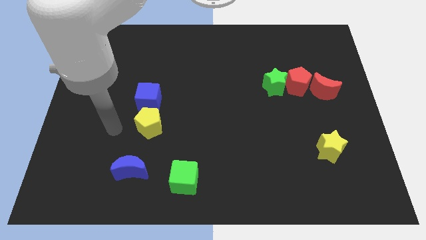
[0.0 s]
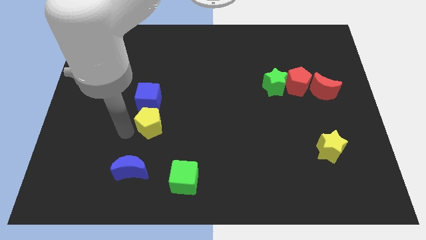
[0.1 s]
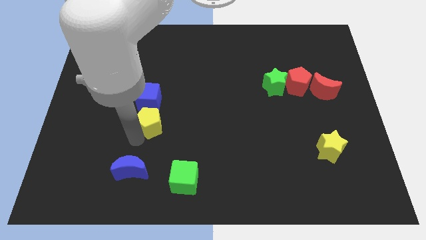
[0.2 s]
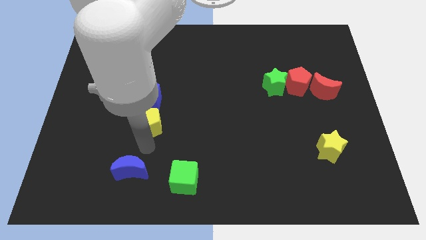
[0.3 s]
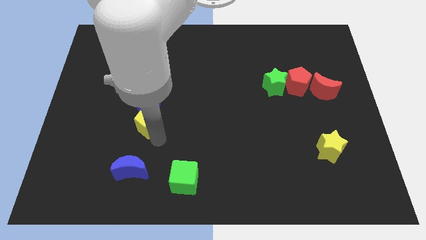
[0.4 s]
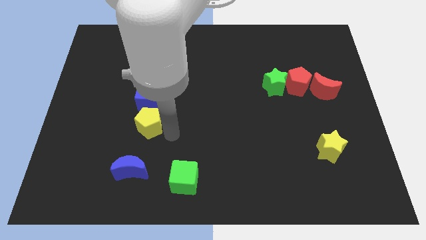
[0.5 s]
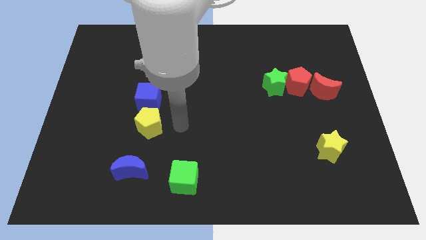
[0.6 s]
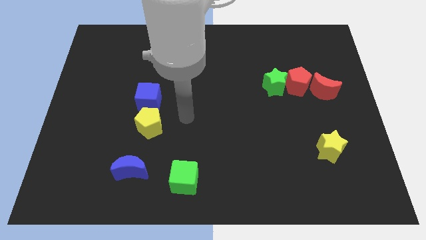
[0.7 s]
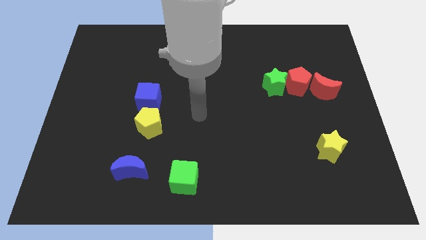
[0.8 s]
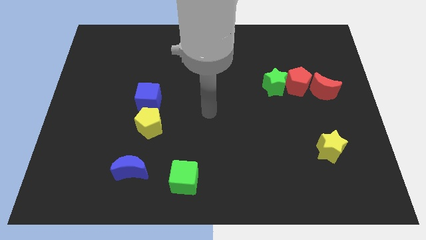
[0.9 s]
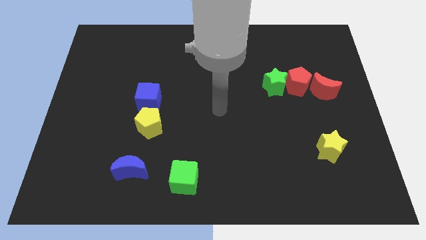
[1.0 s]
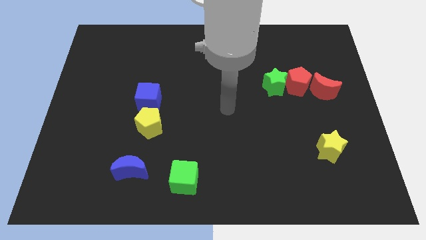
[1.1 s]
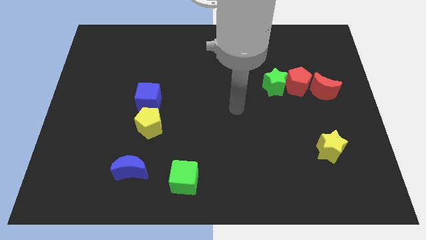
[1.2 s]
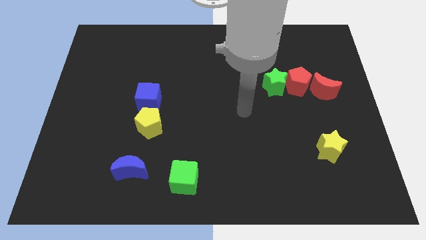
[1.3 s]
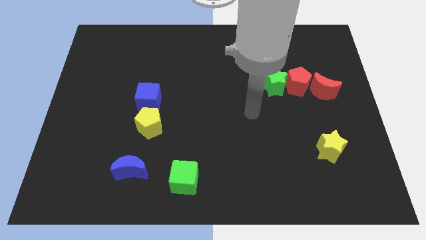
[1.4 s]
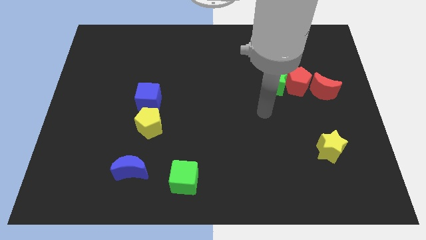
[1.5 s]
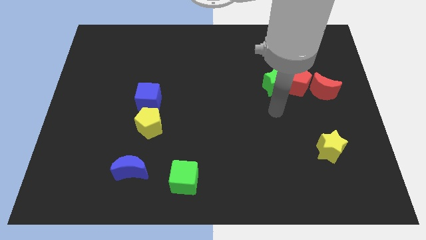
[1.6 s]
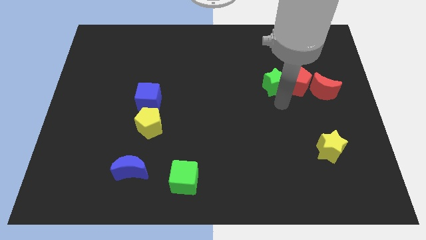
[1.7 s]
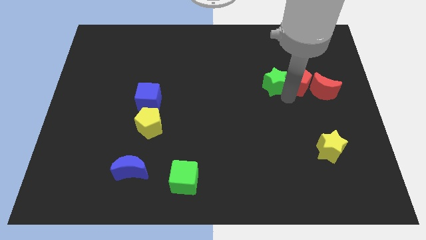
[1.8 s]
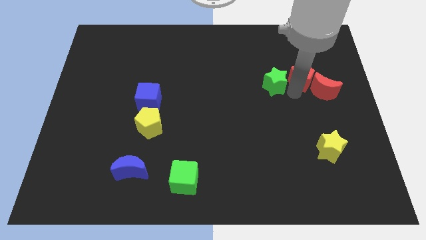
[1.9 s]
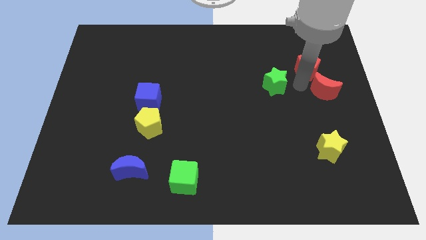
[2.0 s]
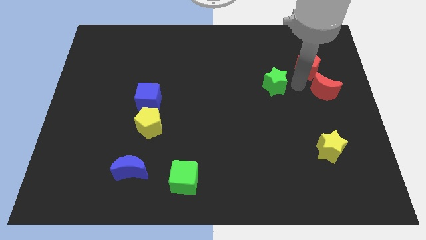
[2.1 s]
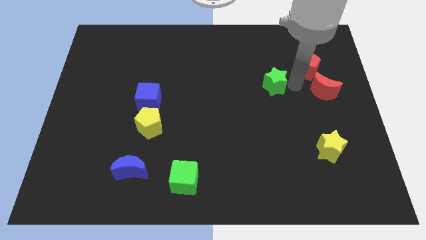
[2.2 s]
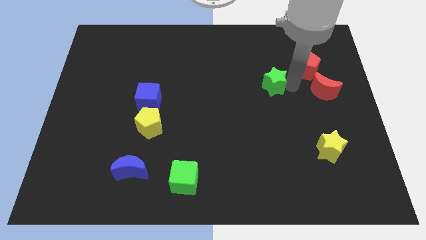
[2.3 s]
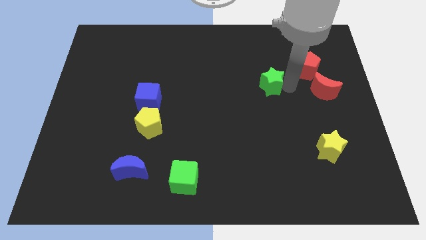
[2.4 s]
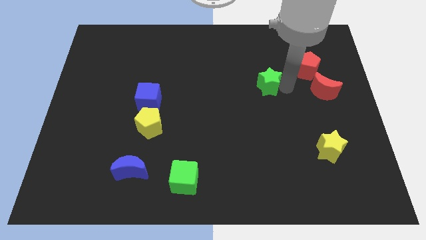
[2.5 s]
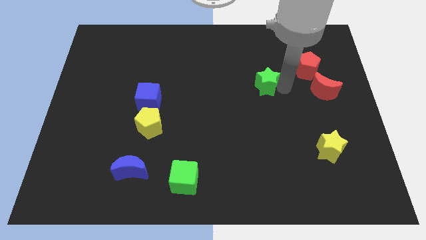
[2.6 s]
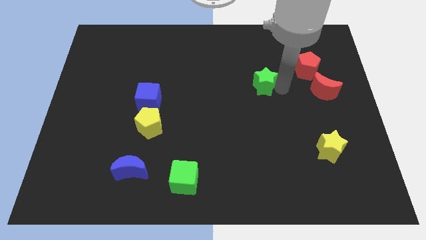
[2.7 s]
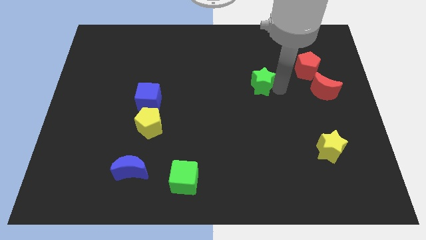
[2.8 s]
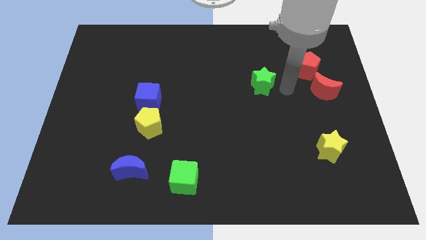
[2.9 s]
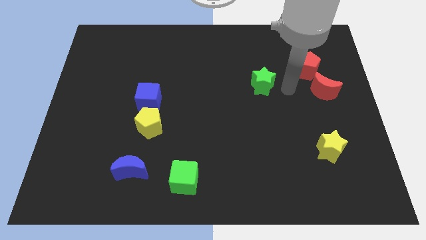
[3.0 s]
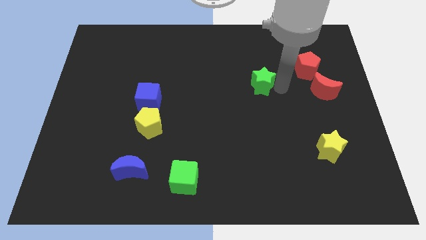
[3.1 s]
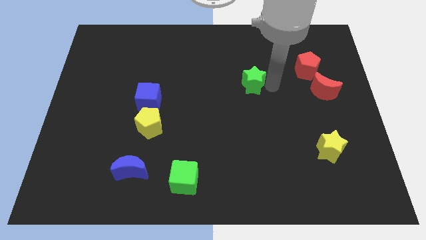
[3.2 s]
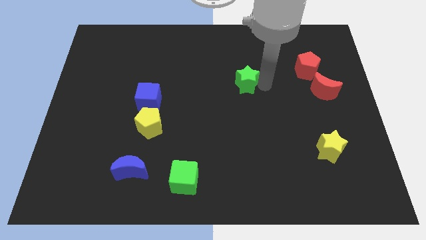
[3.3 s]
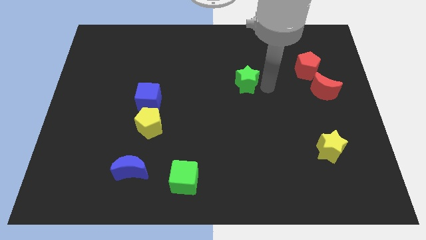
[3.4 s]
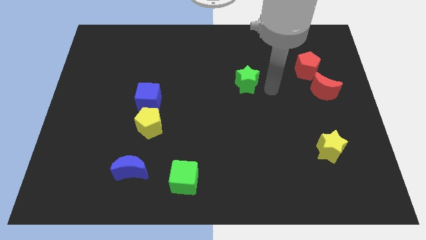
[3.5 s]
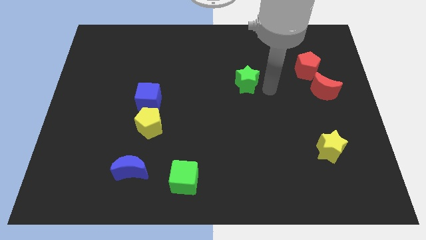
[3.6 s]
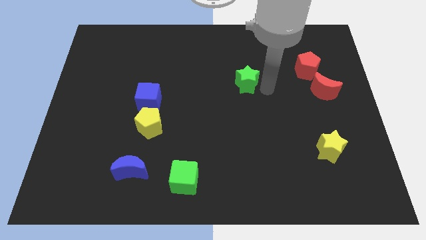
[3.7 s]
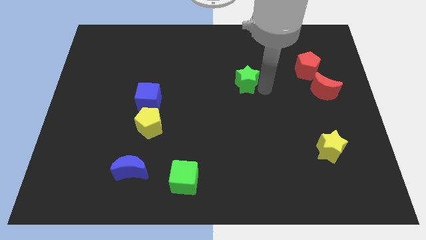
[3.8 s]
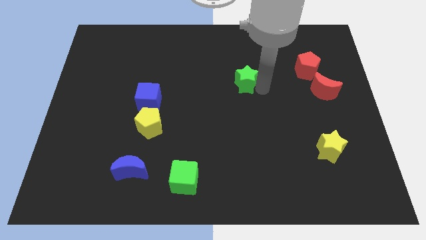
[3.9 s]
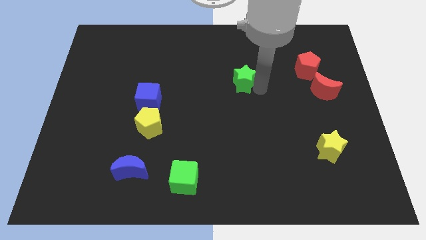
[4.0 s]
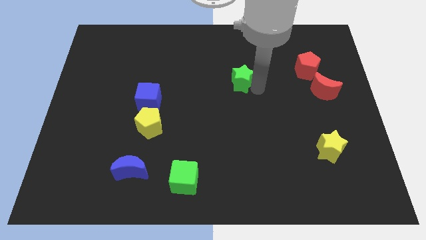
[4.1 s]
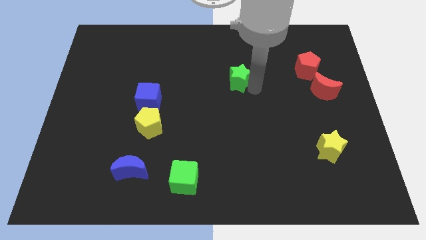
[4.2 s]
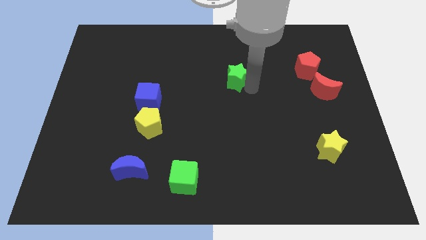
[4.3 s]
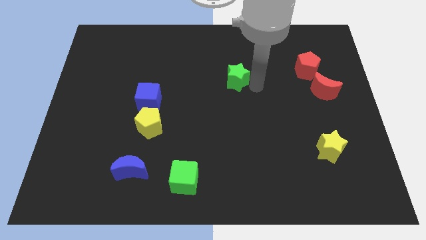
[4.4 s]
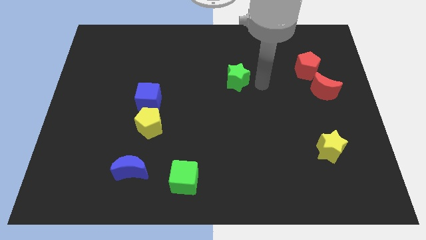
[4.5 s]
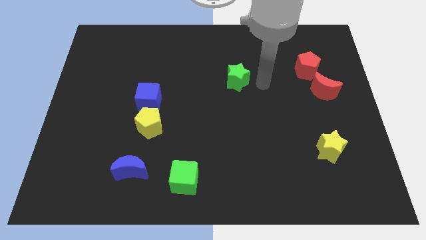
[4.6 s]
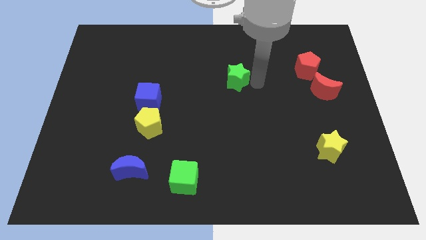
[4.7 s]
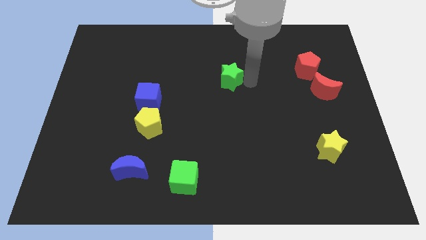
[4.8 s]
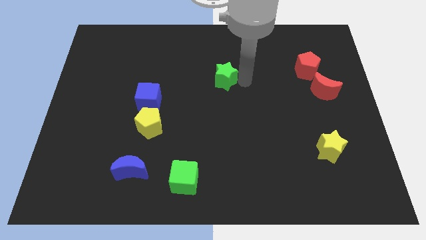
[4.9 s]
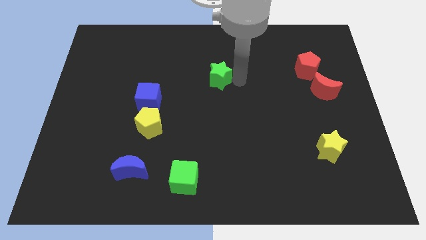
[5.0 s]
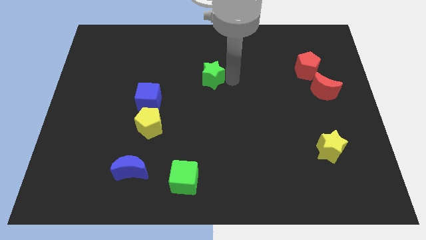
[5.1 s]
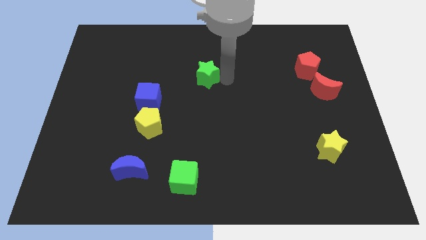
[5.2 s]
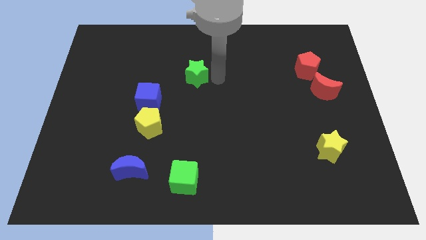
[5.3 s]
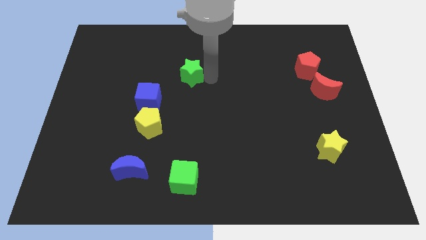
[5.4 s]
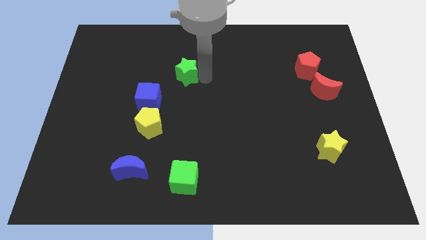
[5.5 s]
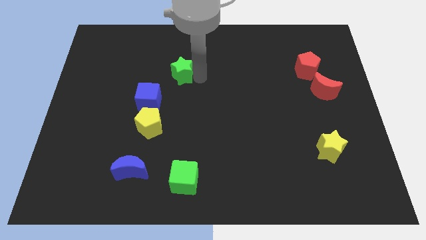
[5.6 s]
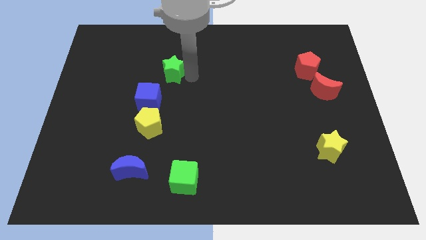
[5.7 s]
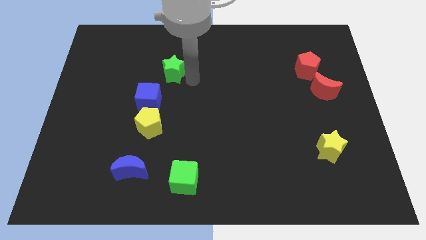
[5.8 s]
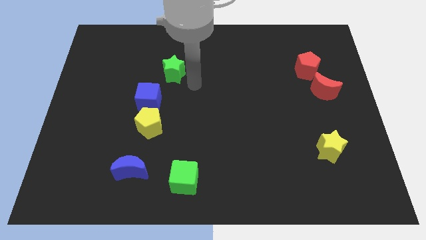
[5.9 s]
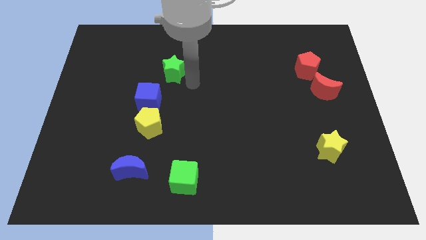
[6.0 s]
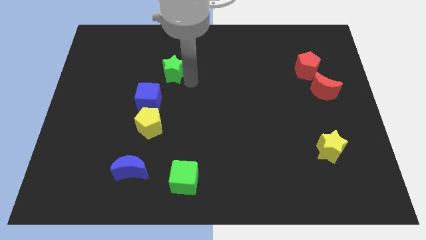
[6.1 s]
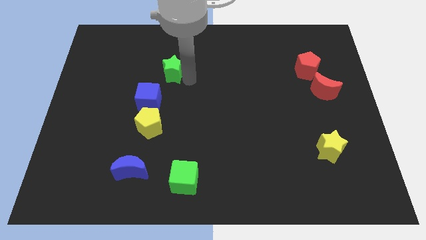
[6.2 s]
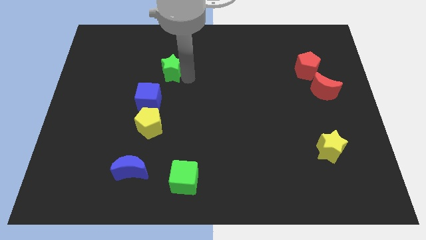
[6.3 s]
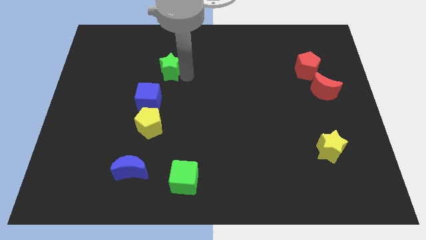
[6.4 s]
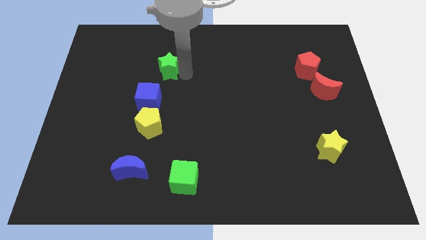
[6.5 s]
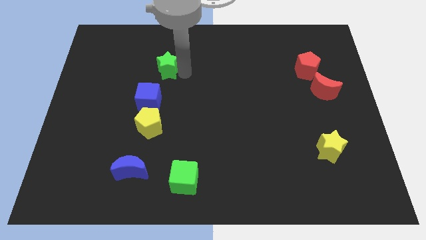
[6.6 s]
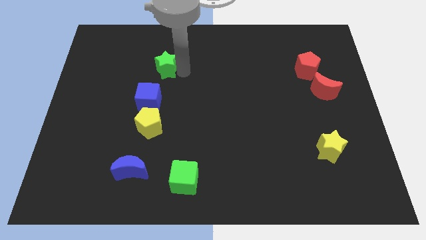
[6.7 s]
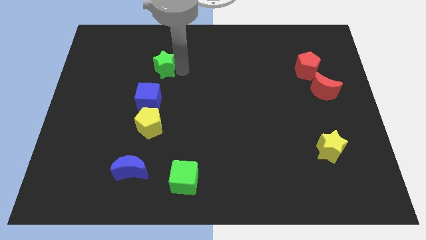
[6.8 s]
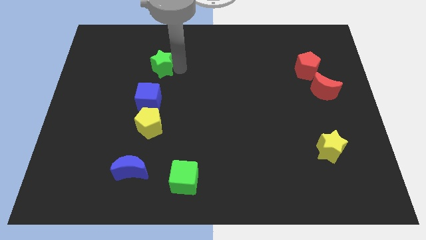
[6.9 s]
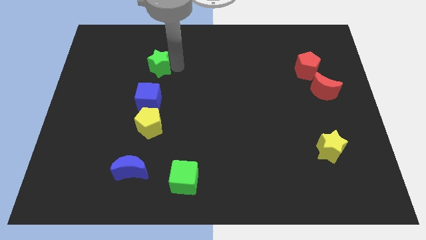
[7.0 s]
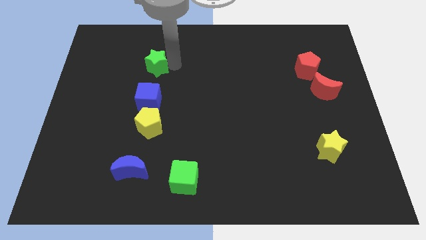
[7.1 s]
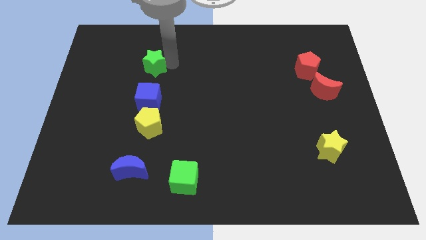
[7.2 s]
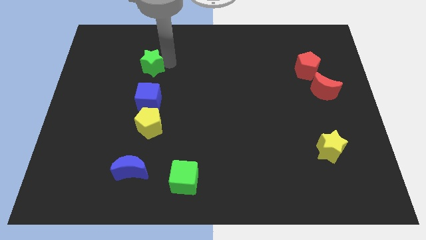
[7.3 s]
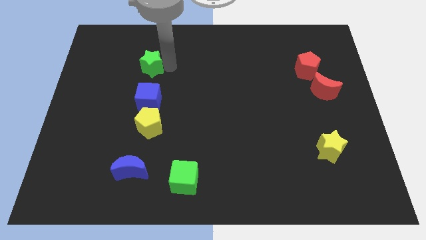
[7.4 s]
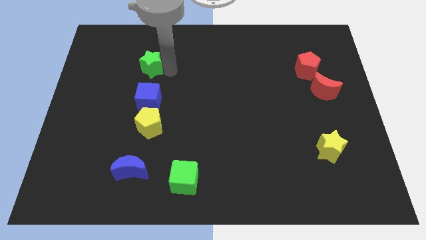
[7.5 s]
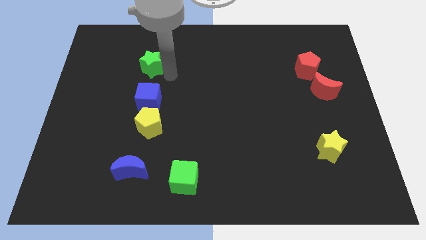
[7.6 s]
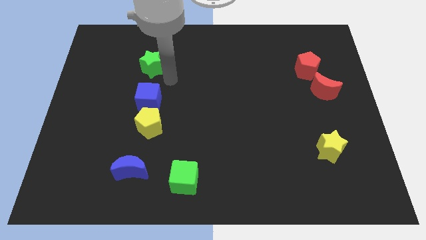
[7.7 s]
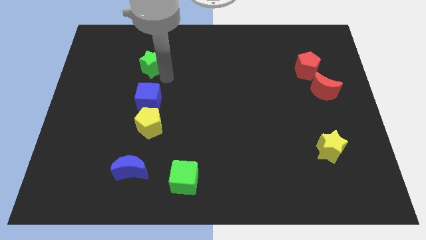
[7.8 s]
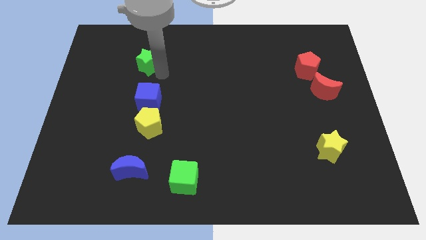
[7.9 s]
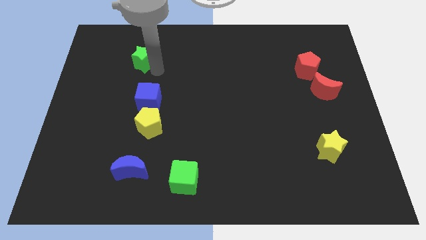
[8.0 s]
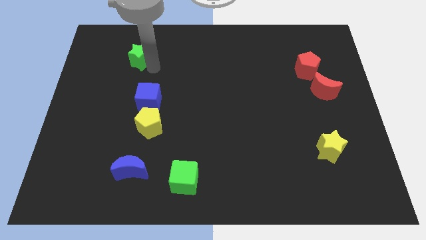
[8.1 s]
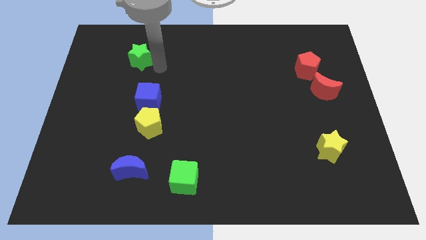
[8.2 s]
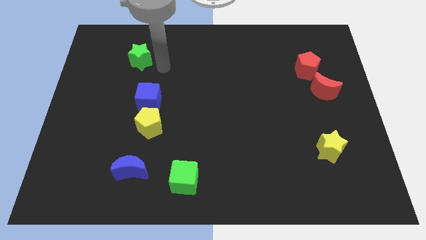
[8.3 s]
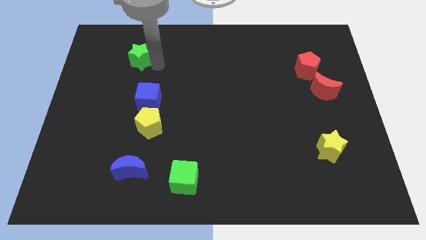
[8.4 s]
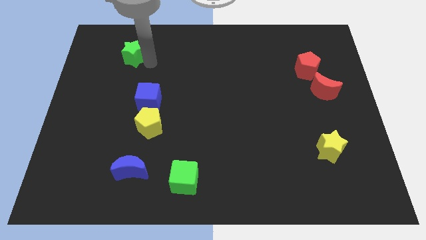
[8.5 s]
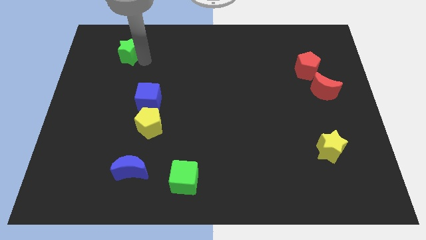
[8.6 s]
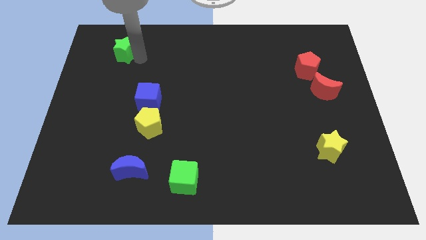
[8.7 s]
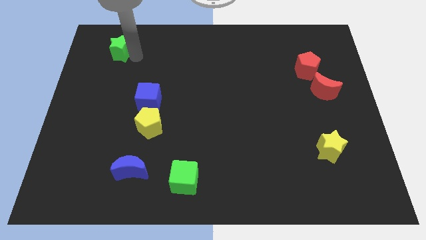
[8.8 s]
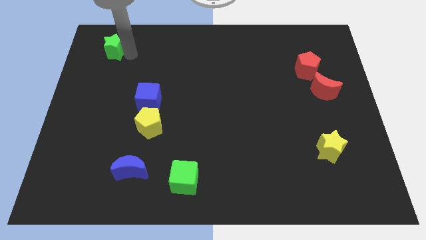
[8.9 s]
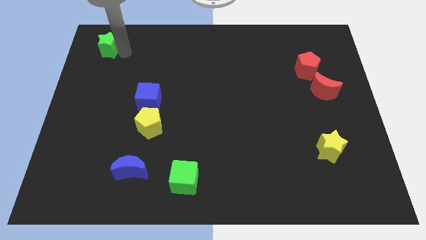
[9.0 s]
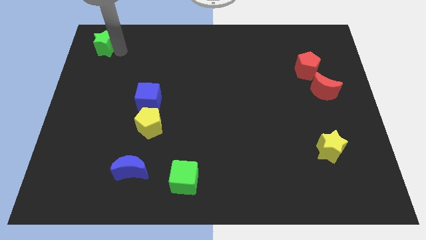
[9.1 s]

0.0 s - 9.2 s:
move the green star to the top left corner
